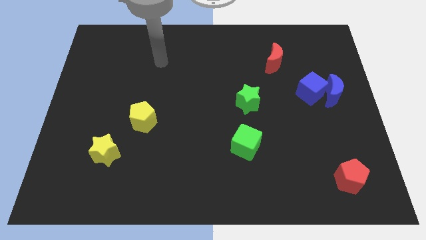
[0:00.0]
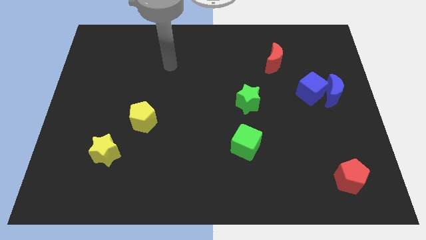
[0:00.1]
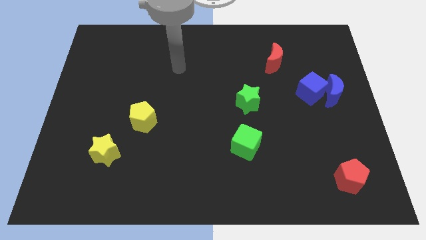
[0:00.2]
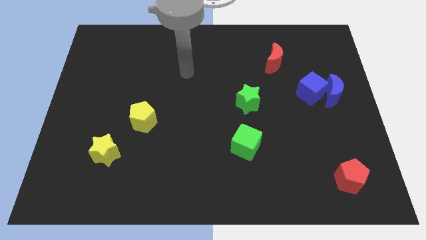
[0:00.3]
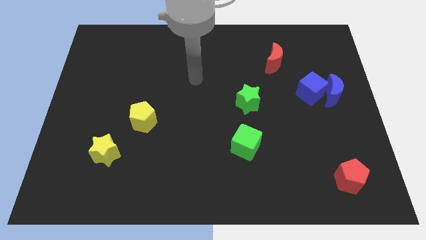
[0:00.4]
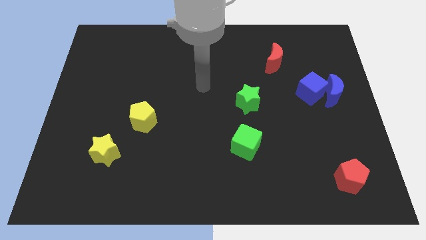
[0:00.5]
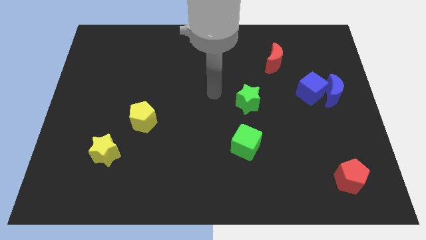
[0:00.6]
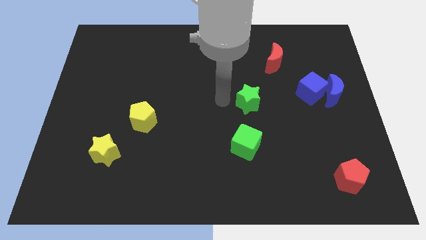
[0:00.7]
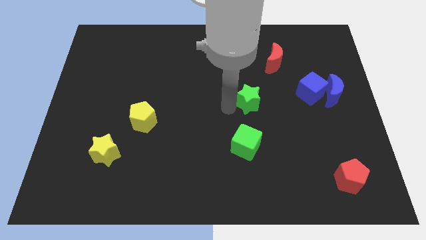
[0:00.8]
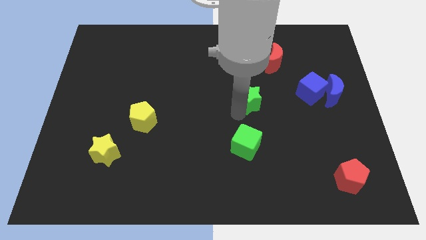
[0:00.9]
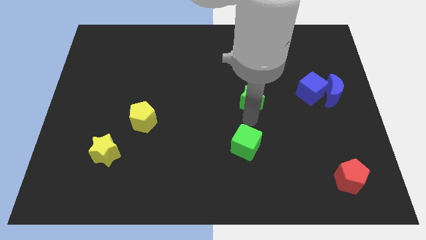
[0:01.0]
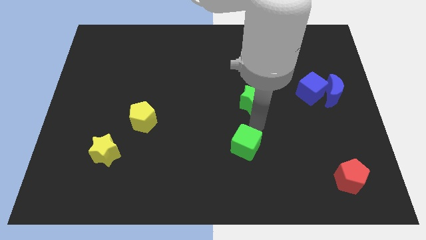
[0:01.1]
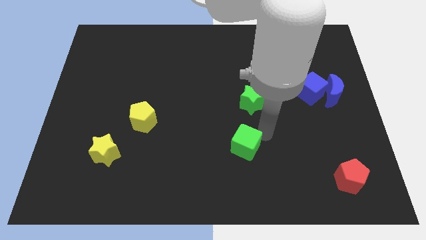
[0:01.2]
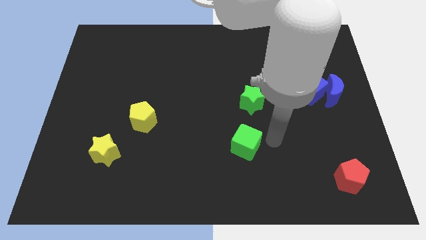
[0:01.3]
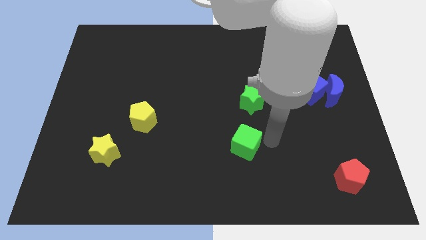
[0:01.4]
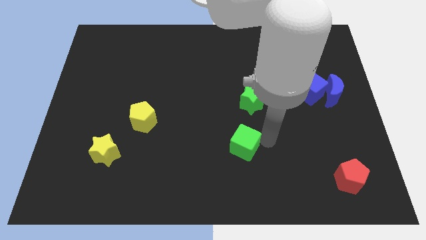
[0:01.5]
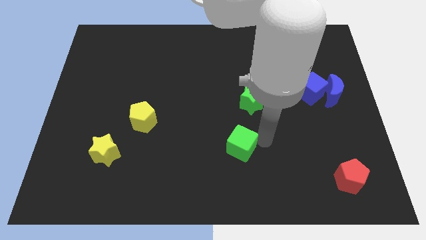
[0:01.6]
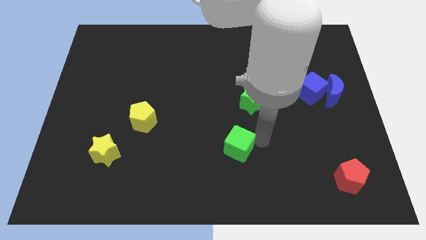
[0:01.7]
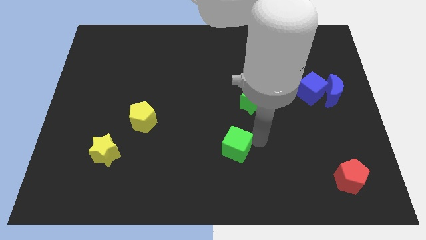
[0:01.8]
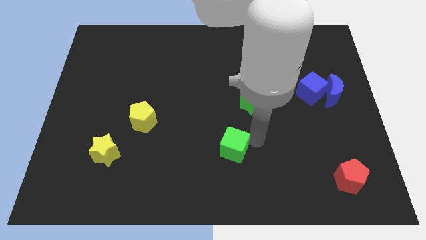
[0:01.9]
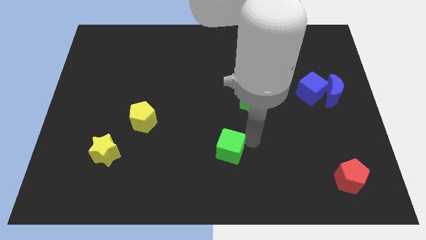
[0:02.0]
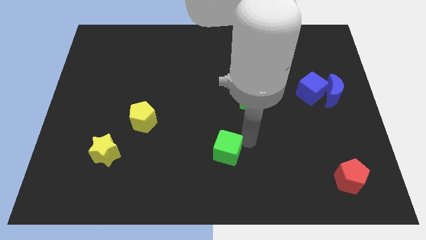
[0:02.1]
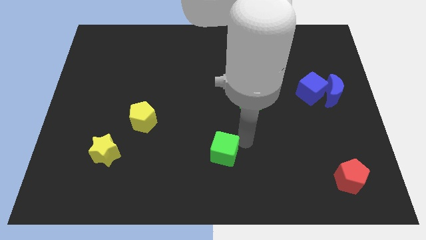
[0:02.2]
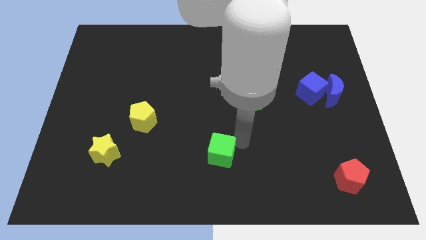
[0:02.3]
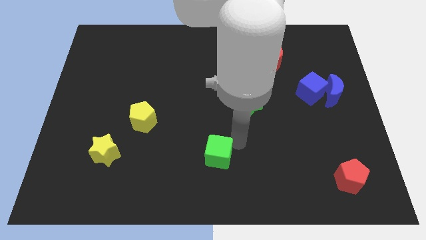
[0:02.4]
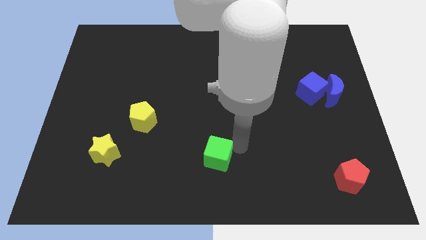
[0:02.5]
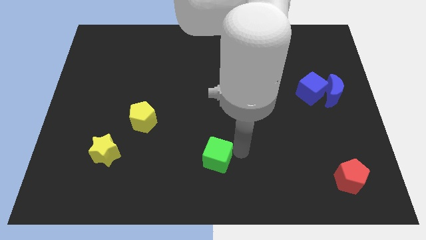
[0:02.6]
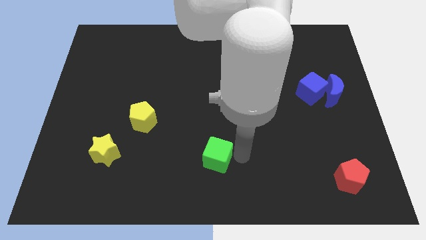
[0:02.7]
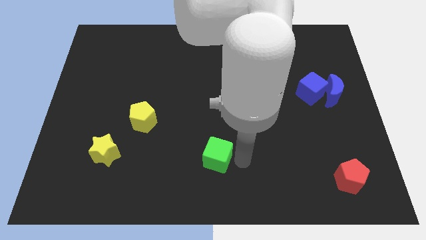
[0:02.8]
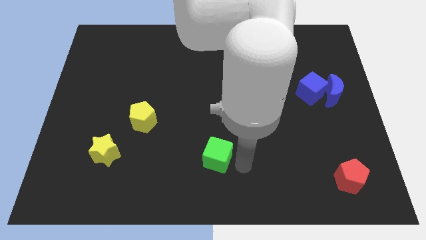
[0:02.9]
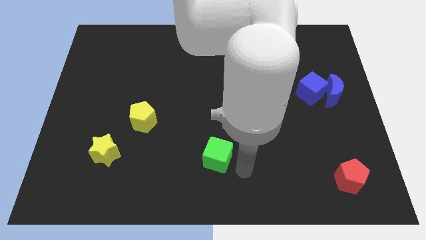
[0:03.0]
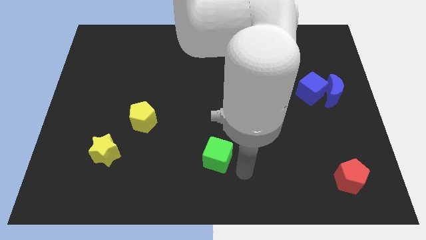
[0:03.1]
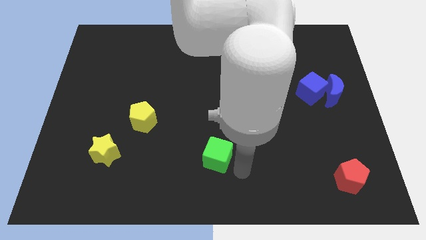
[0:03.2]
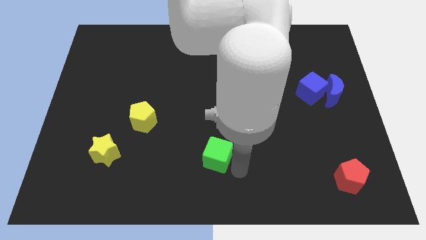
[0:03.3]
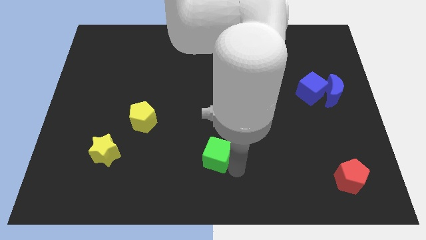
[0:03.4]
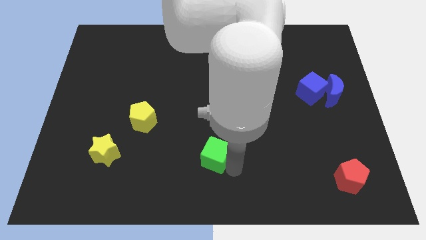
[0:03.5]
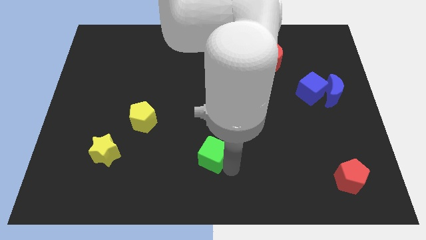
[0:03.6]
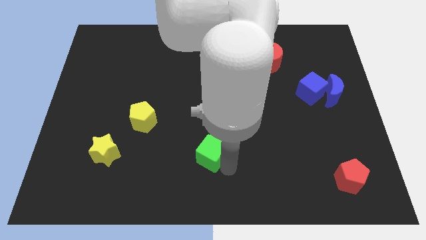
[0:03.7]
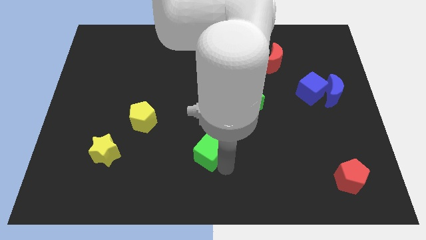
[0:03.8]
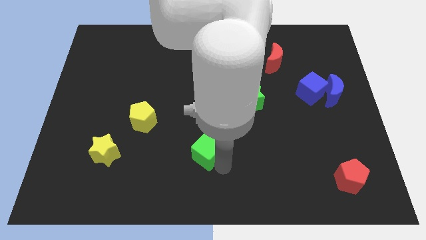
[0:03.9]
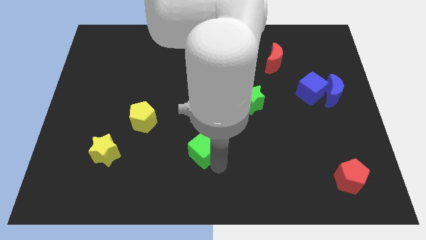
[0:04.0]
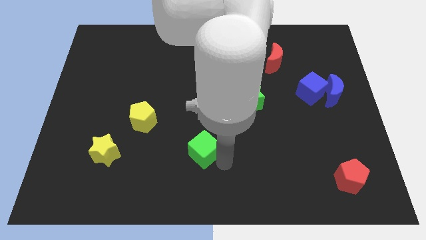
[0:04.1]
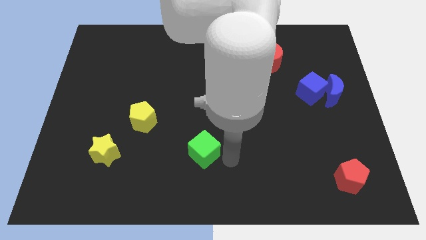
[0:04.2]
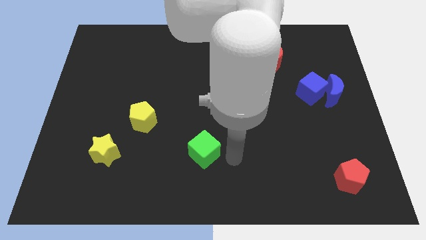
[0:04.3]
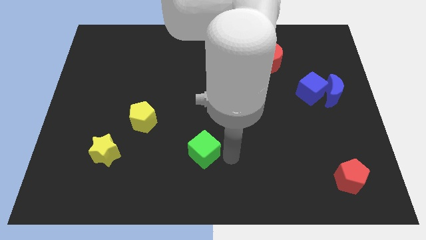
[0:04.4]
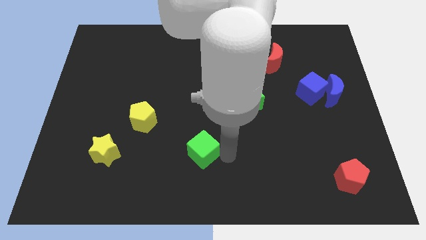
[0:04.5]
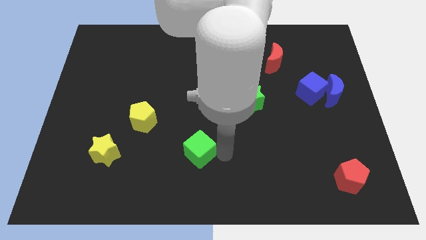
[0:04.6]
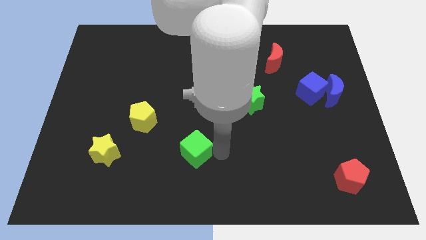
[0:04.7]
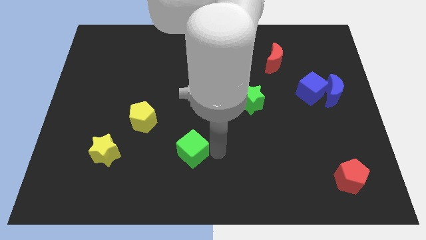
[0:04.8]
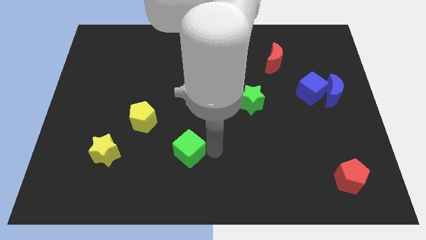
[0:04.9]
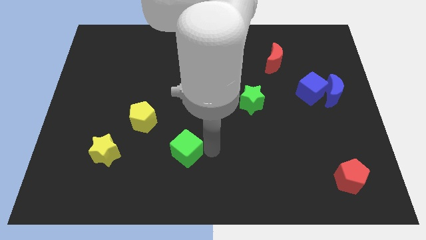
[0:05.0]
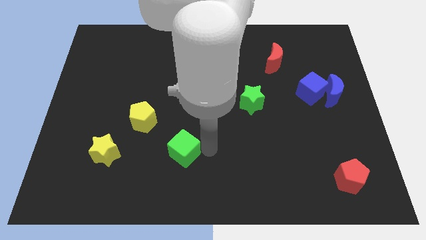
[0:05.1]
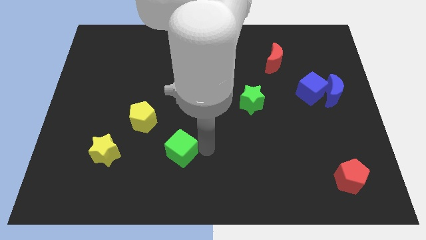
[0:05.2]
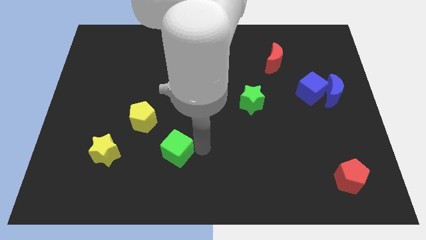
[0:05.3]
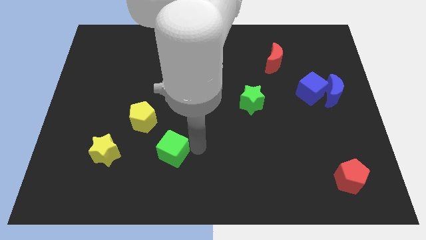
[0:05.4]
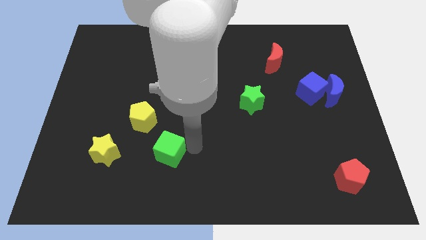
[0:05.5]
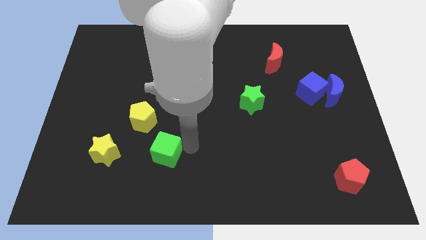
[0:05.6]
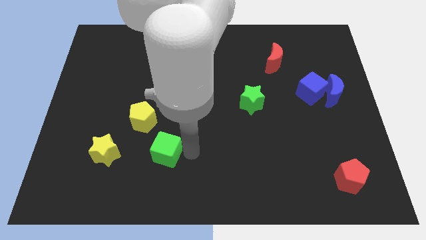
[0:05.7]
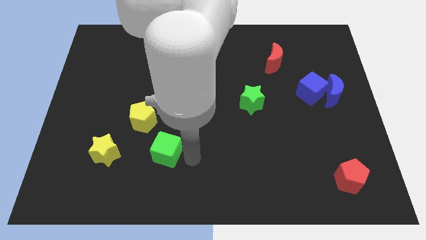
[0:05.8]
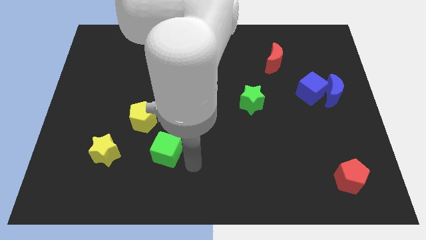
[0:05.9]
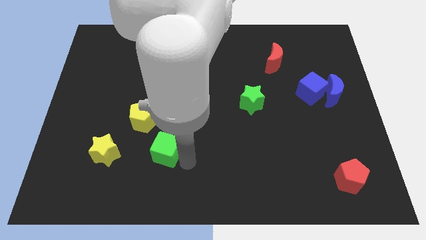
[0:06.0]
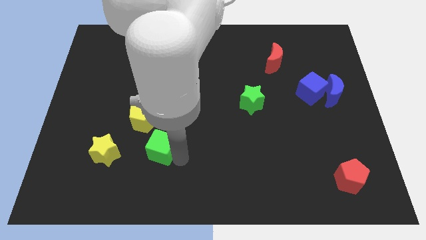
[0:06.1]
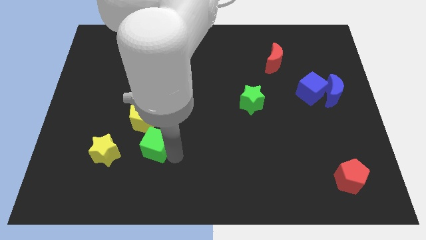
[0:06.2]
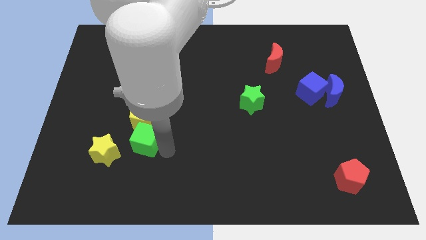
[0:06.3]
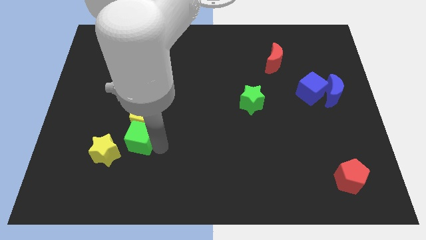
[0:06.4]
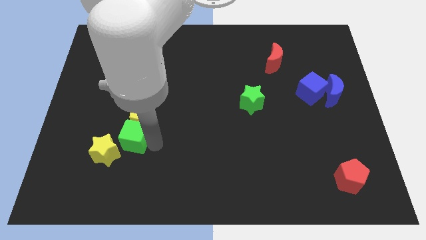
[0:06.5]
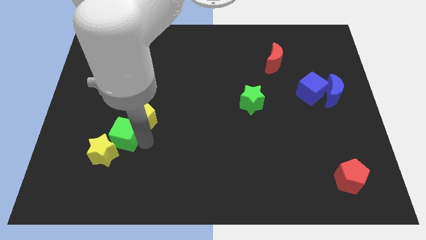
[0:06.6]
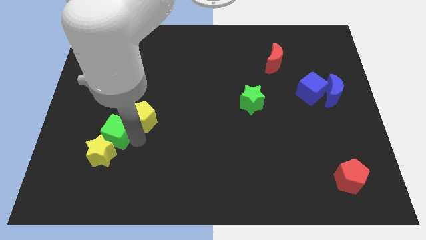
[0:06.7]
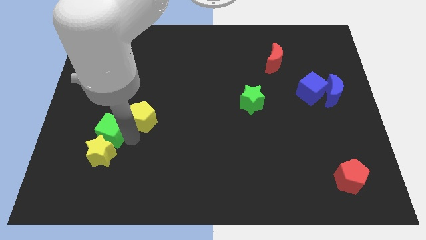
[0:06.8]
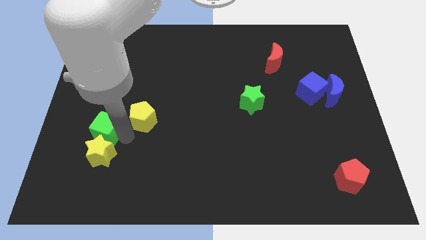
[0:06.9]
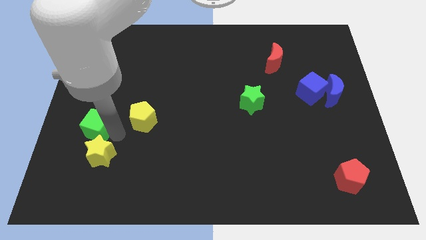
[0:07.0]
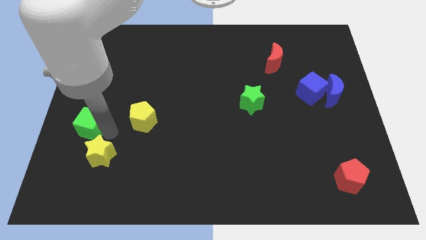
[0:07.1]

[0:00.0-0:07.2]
put the green cube to the left side of the board
